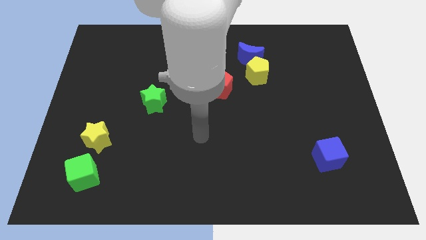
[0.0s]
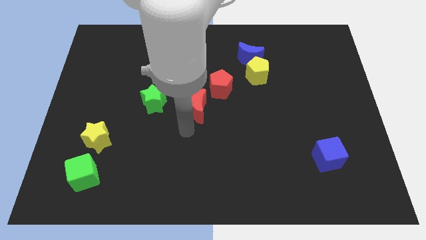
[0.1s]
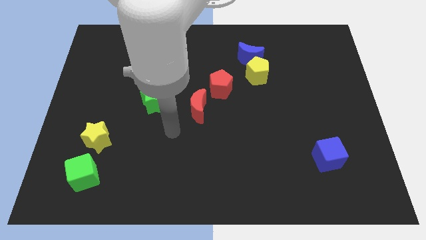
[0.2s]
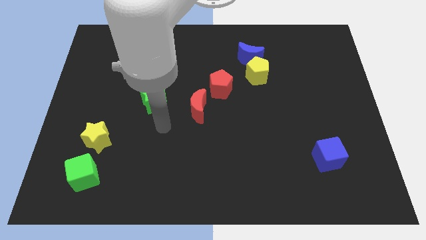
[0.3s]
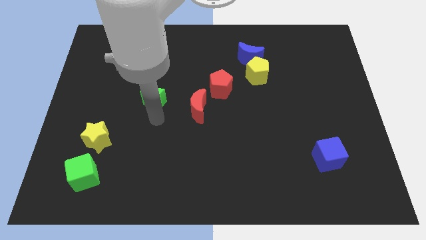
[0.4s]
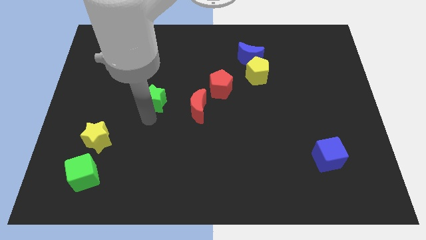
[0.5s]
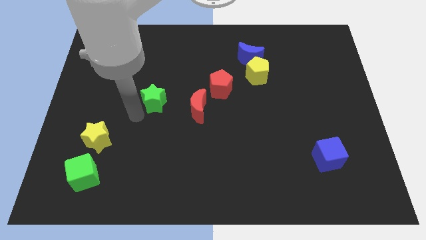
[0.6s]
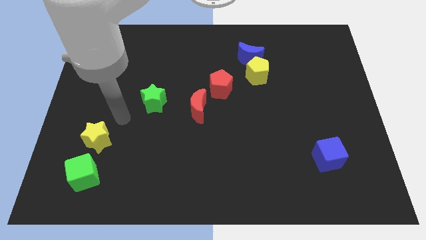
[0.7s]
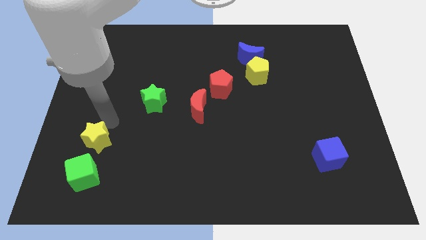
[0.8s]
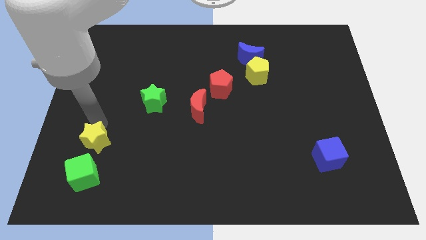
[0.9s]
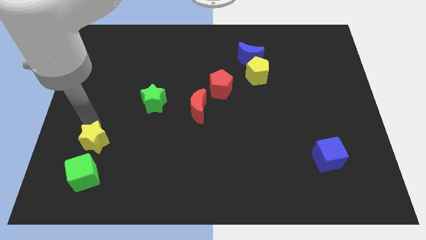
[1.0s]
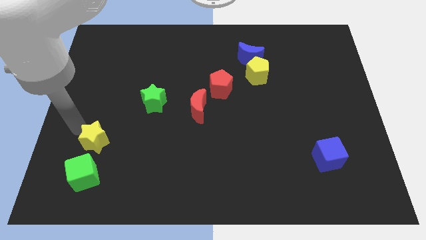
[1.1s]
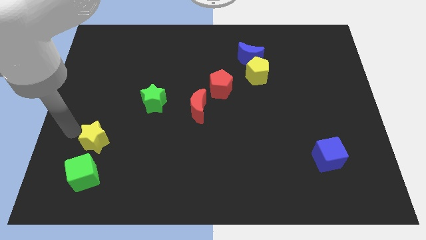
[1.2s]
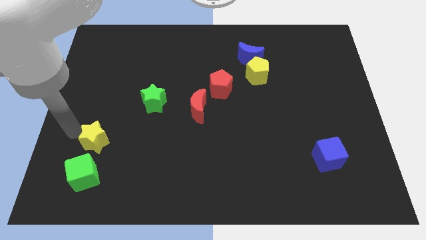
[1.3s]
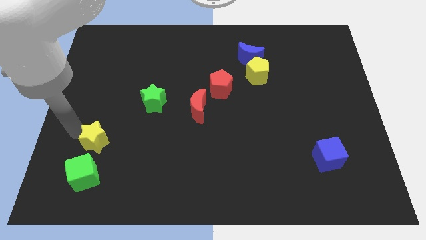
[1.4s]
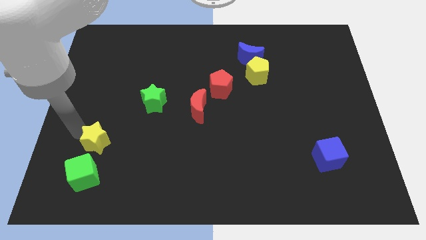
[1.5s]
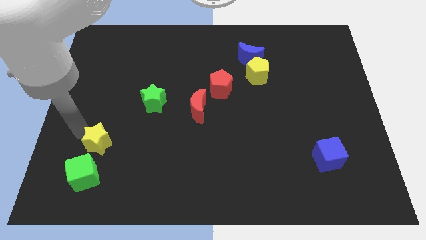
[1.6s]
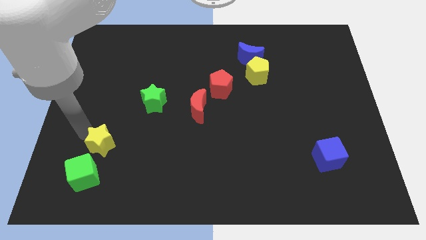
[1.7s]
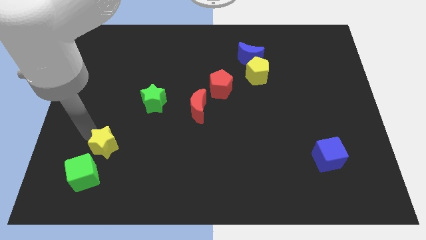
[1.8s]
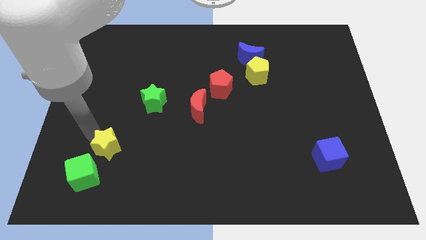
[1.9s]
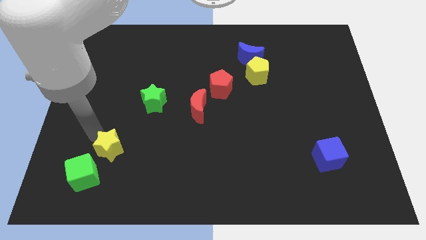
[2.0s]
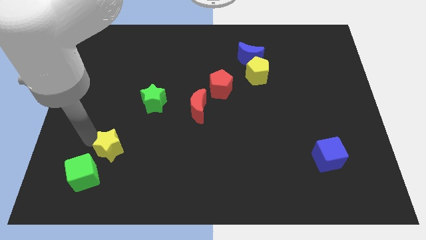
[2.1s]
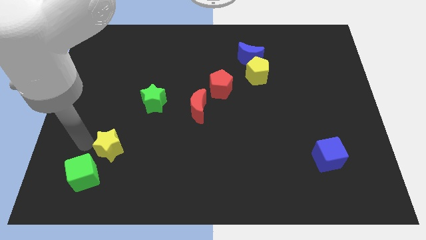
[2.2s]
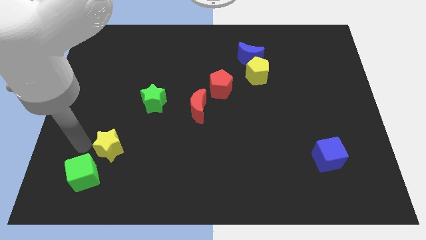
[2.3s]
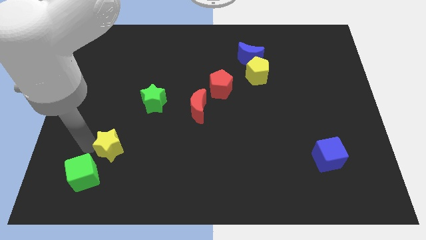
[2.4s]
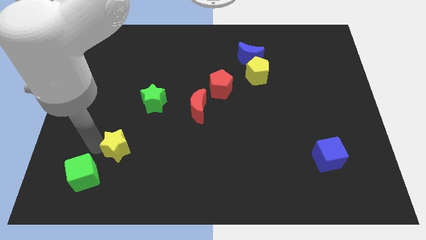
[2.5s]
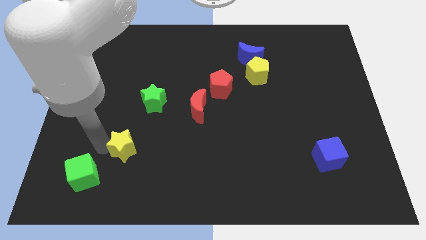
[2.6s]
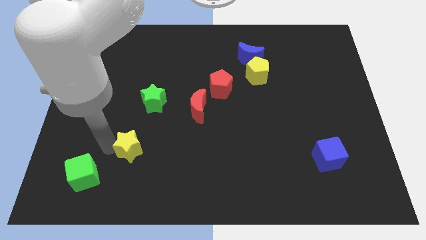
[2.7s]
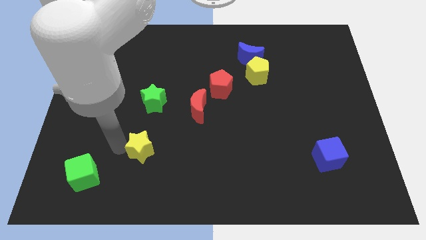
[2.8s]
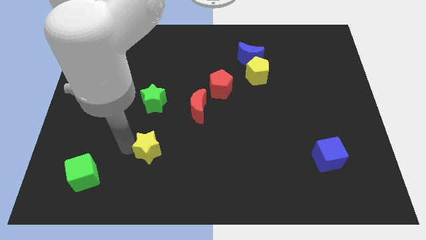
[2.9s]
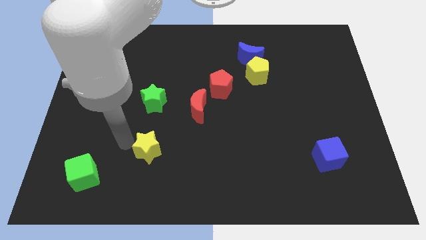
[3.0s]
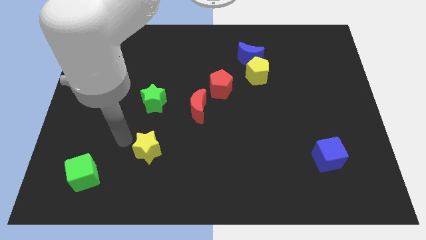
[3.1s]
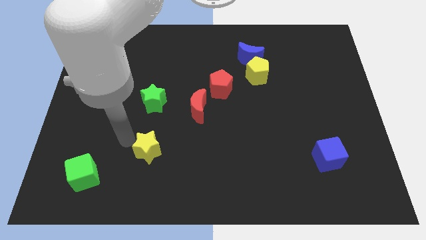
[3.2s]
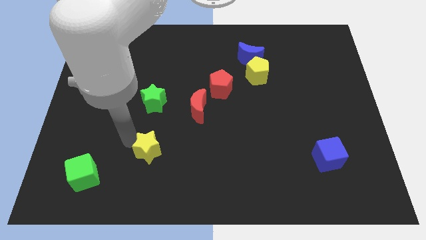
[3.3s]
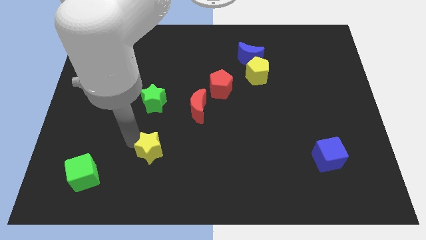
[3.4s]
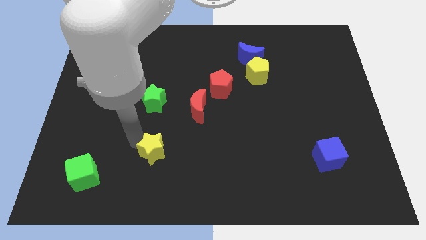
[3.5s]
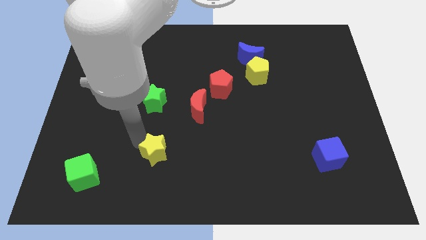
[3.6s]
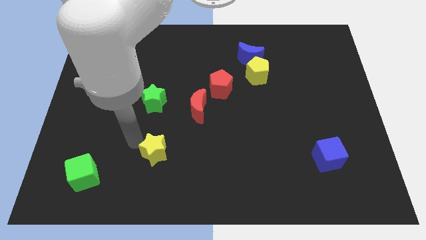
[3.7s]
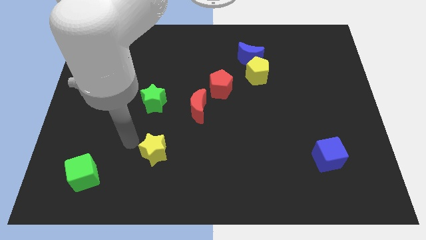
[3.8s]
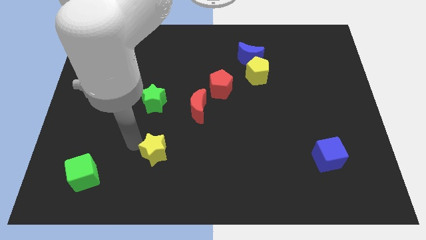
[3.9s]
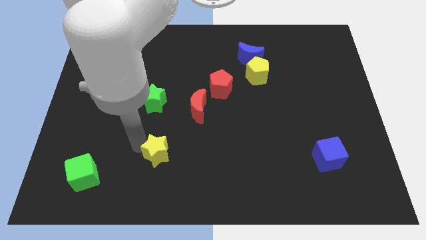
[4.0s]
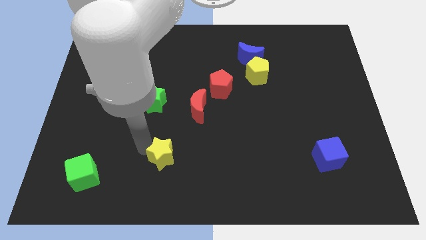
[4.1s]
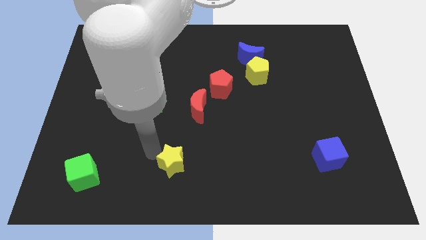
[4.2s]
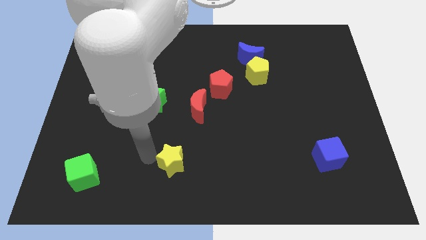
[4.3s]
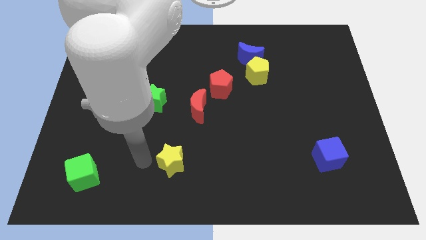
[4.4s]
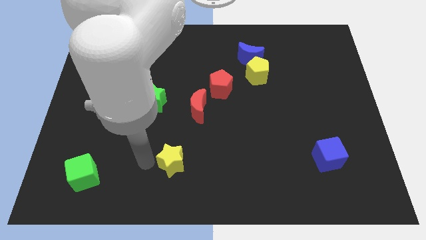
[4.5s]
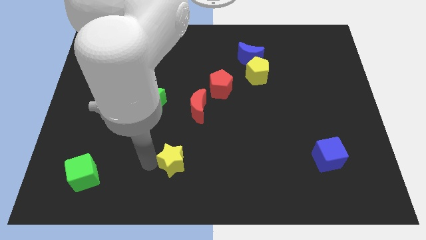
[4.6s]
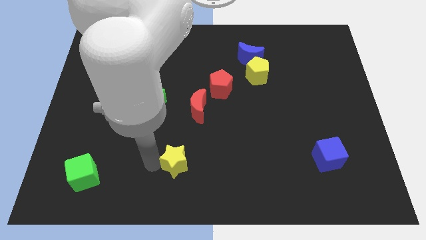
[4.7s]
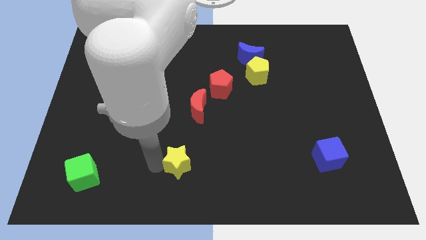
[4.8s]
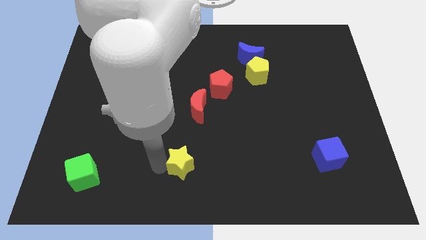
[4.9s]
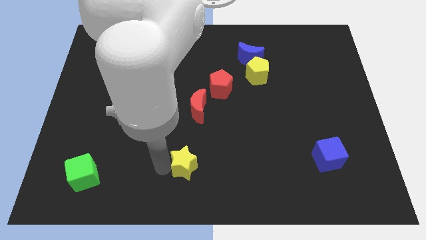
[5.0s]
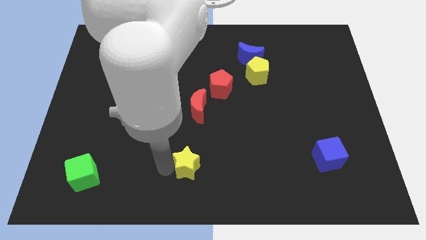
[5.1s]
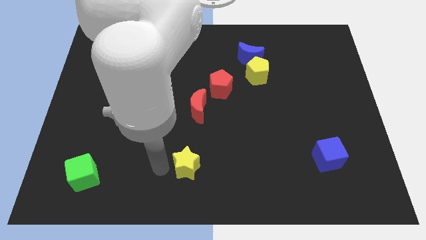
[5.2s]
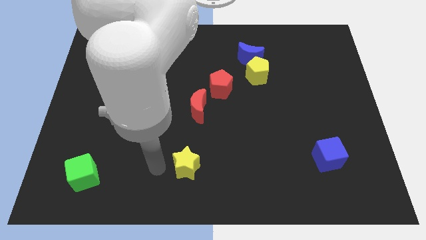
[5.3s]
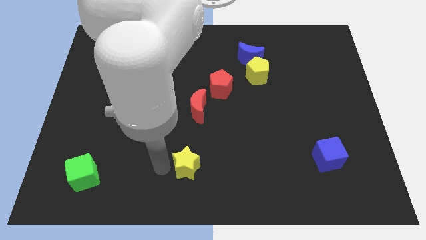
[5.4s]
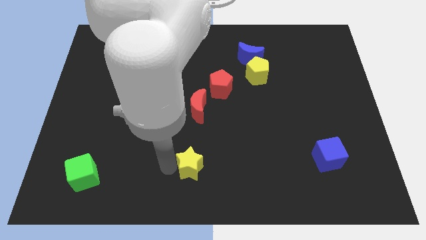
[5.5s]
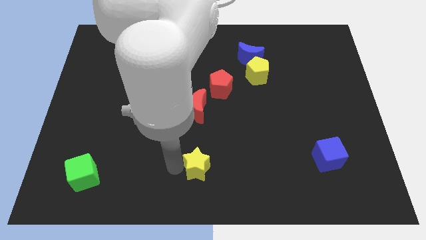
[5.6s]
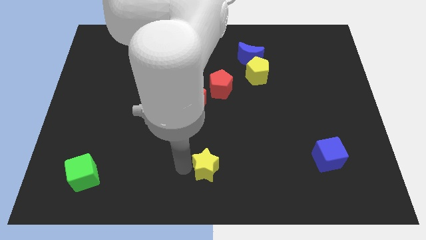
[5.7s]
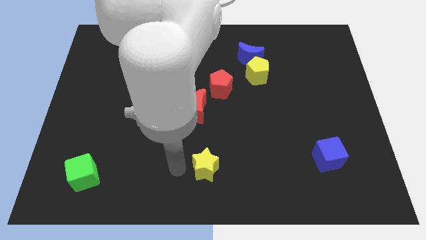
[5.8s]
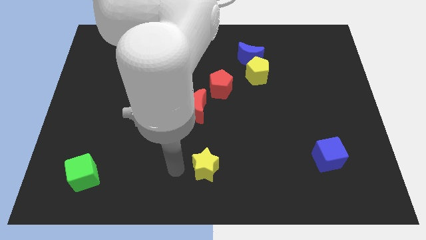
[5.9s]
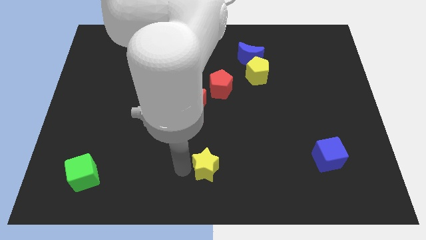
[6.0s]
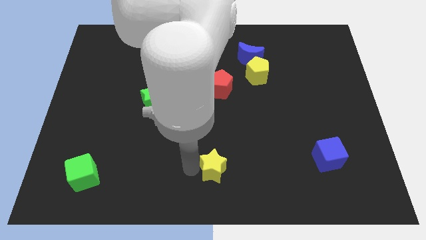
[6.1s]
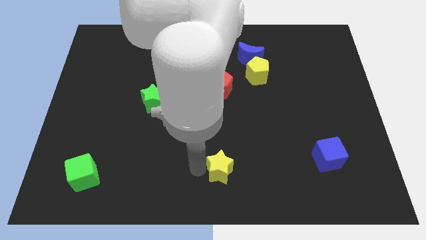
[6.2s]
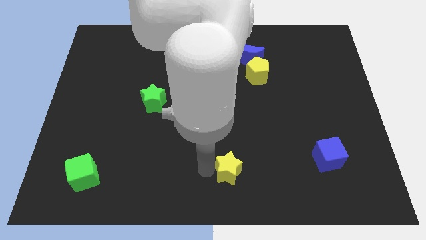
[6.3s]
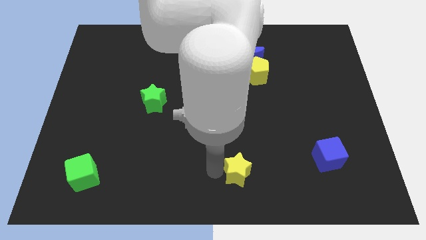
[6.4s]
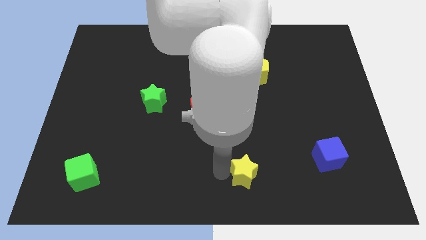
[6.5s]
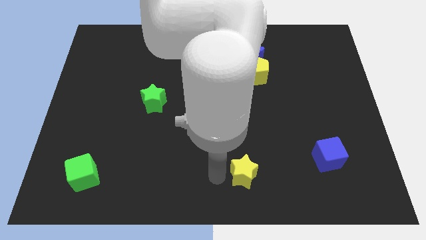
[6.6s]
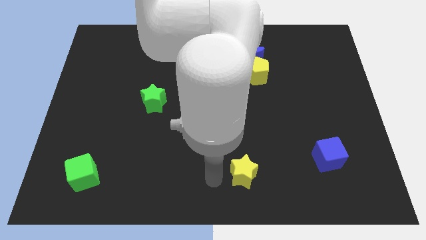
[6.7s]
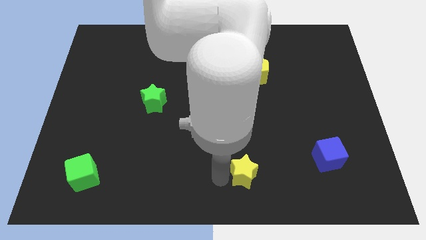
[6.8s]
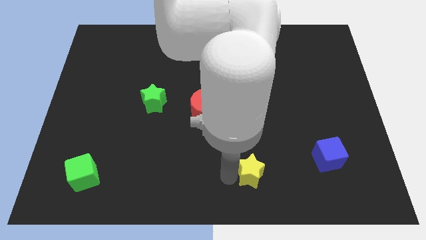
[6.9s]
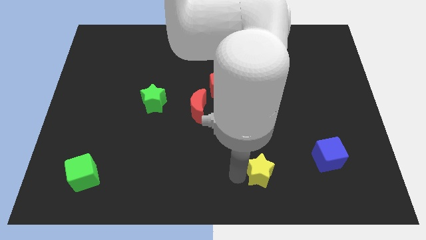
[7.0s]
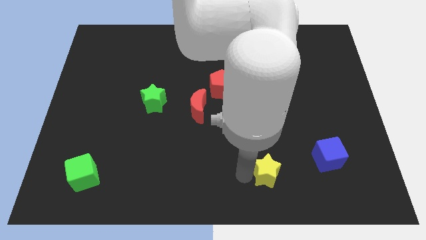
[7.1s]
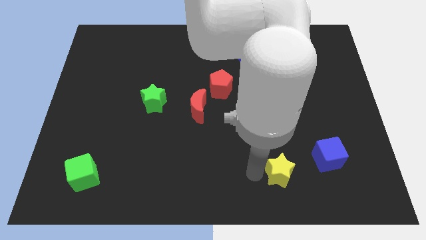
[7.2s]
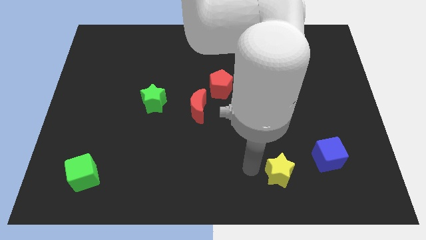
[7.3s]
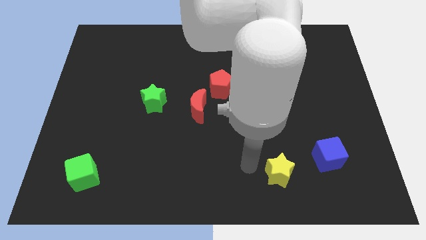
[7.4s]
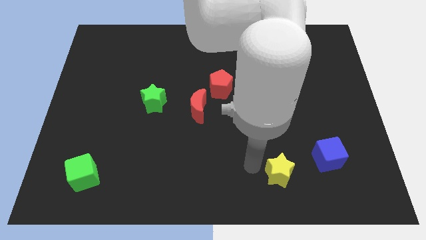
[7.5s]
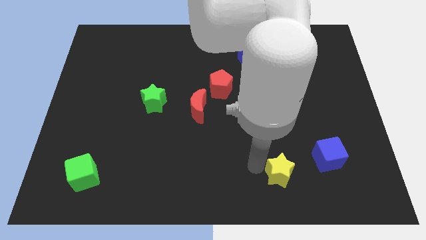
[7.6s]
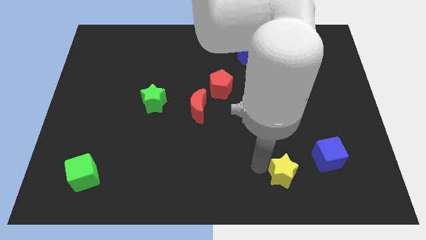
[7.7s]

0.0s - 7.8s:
push the yellow star to the bottom left of the blue cube
